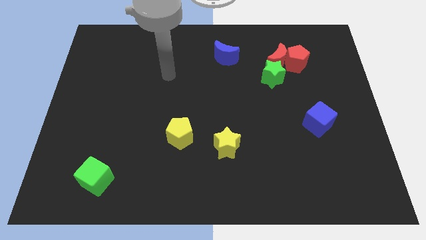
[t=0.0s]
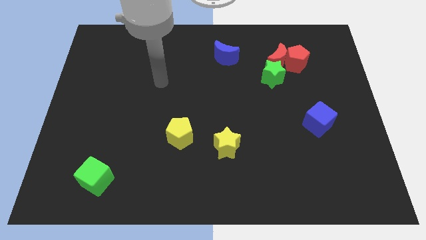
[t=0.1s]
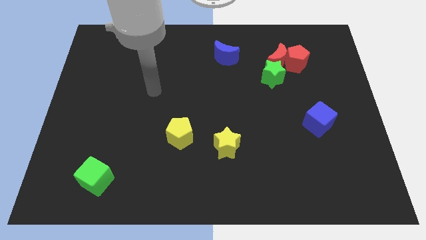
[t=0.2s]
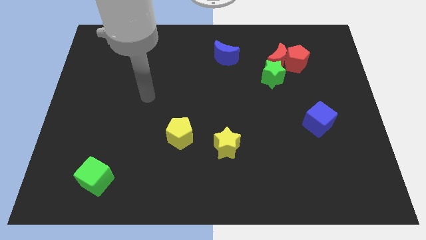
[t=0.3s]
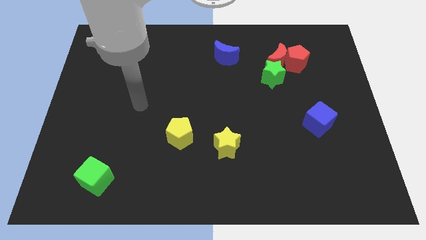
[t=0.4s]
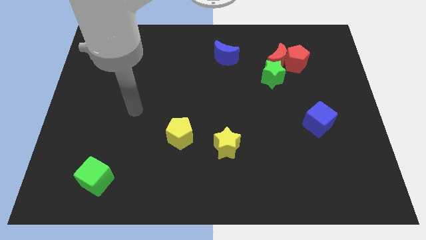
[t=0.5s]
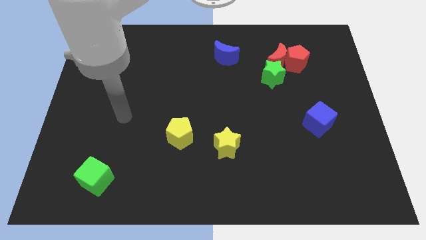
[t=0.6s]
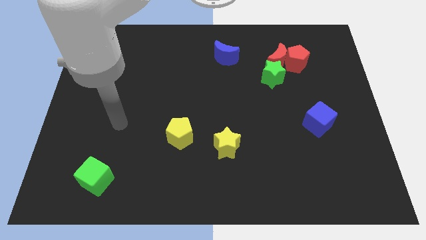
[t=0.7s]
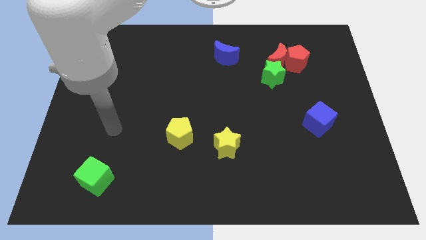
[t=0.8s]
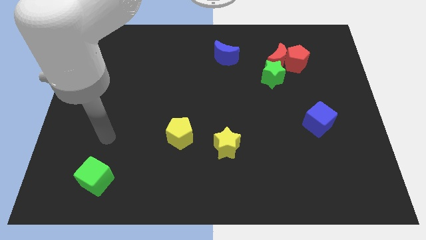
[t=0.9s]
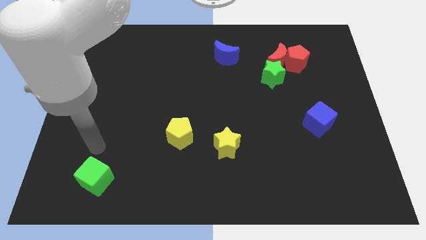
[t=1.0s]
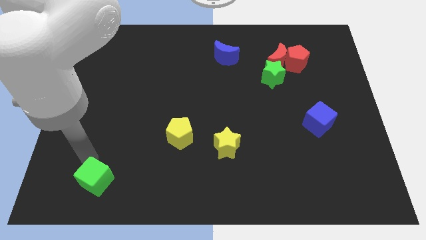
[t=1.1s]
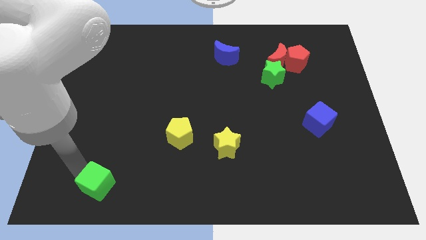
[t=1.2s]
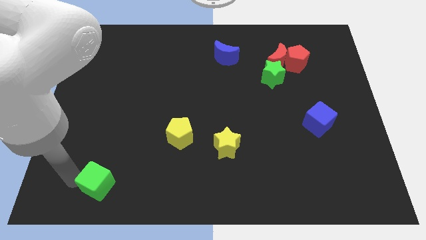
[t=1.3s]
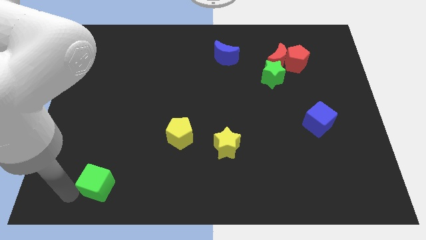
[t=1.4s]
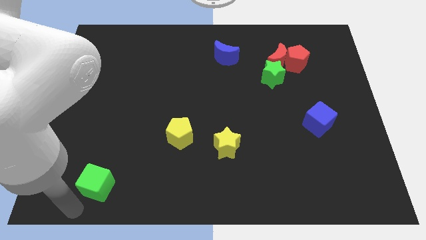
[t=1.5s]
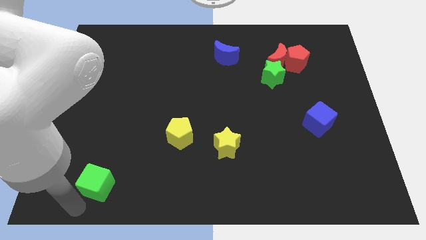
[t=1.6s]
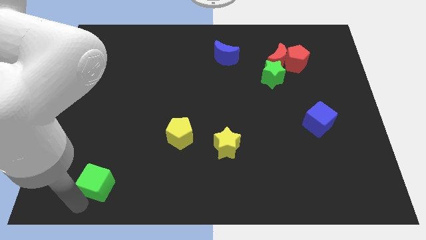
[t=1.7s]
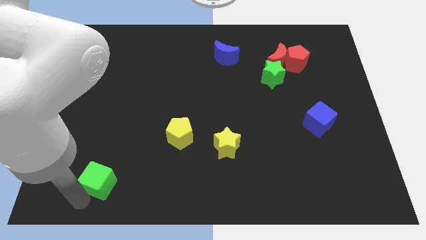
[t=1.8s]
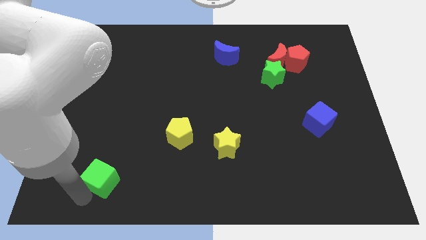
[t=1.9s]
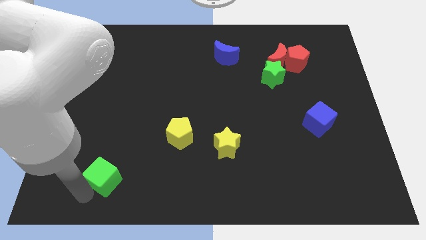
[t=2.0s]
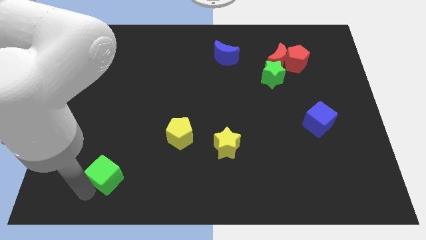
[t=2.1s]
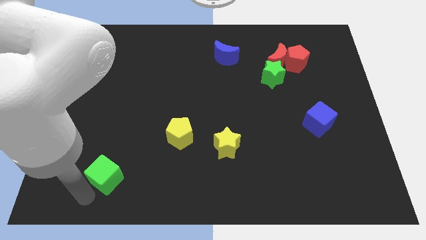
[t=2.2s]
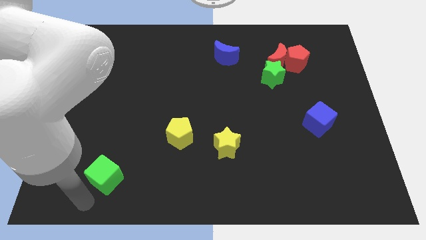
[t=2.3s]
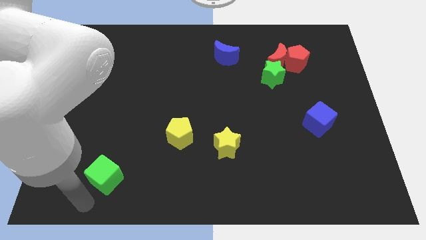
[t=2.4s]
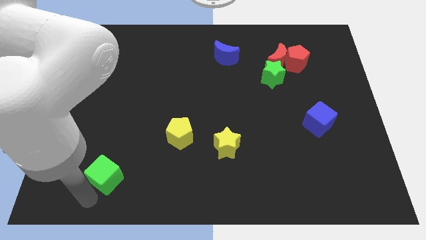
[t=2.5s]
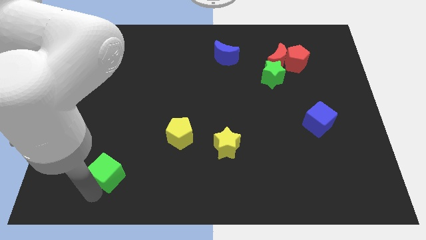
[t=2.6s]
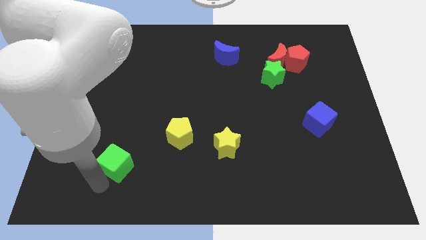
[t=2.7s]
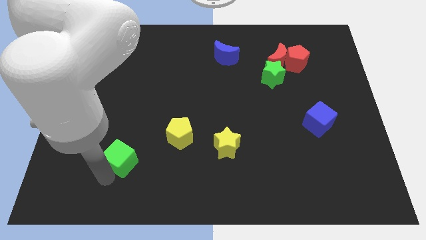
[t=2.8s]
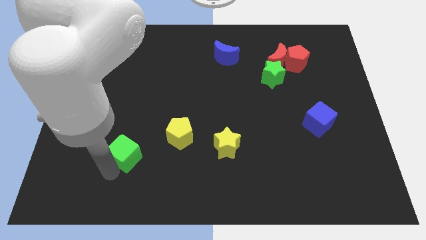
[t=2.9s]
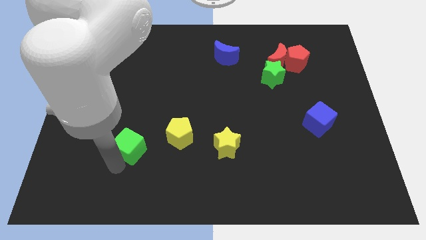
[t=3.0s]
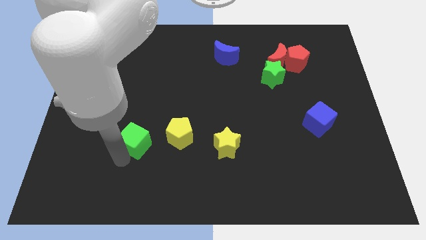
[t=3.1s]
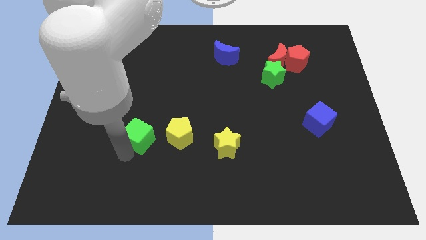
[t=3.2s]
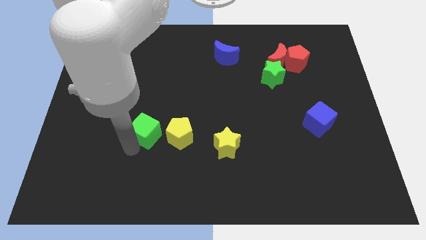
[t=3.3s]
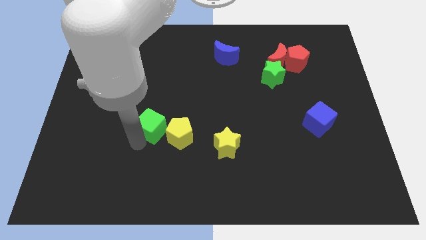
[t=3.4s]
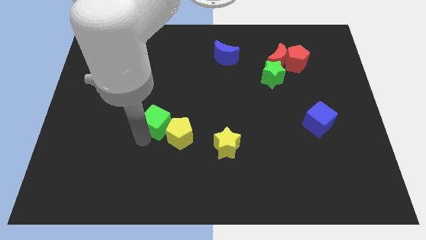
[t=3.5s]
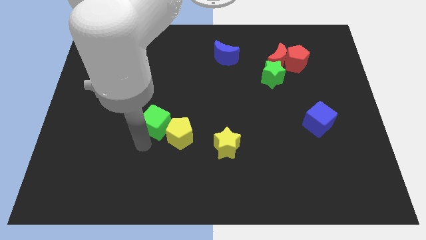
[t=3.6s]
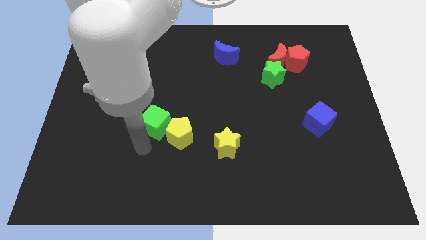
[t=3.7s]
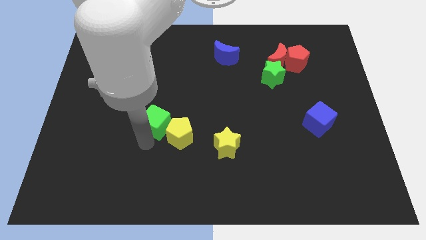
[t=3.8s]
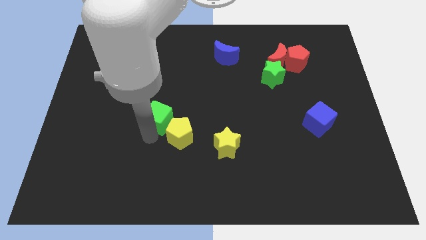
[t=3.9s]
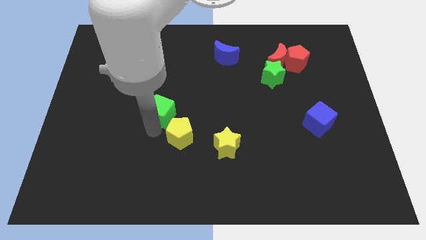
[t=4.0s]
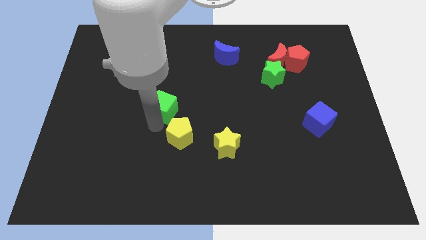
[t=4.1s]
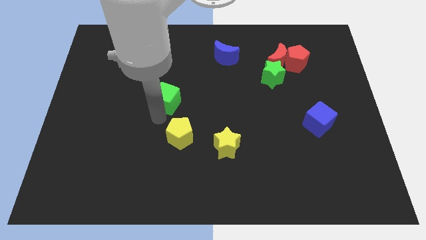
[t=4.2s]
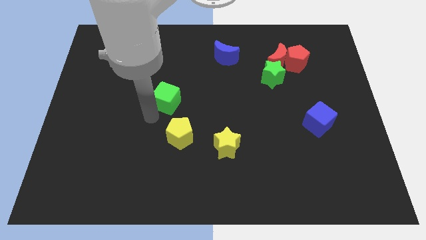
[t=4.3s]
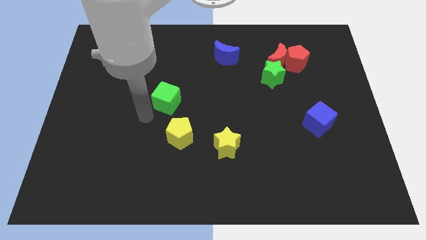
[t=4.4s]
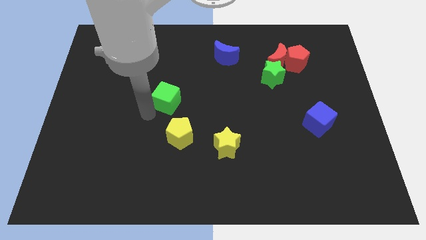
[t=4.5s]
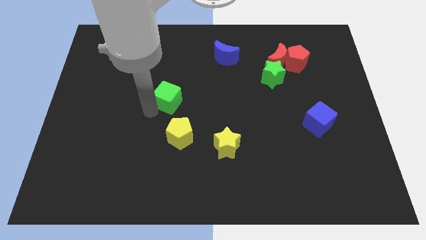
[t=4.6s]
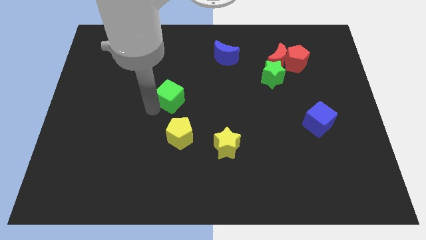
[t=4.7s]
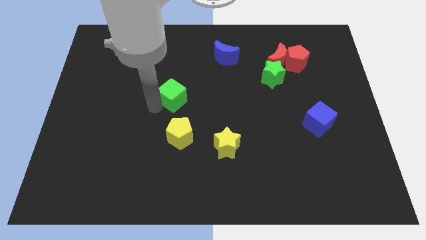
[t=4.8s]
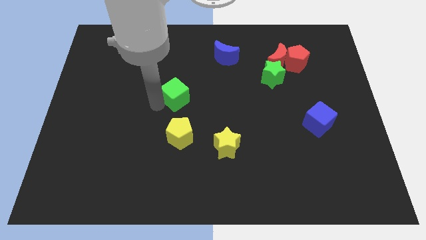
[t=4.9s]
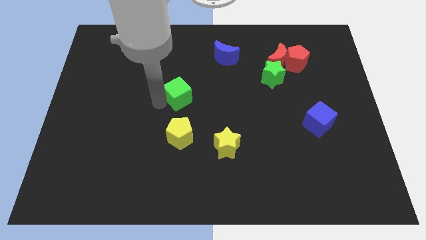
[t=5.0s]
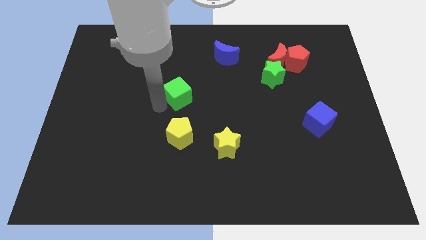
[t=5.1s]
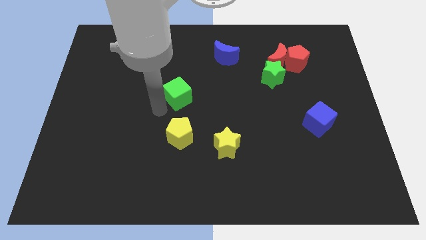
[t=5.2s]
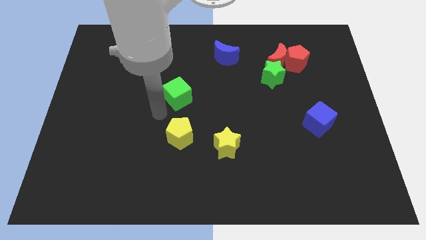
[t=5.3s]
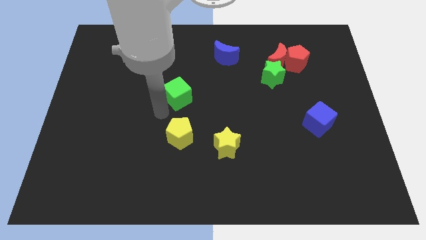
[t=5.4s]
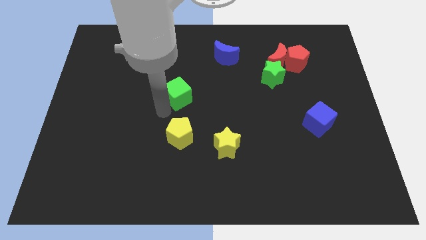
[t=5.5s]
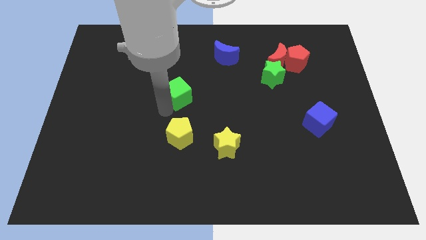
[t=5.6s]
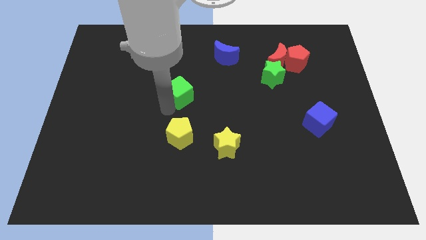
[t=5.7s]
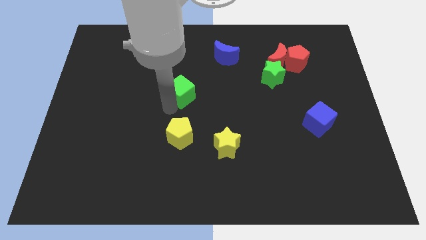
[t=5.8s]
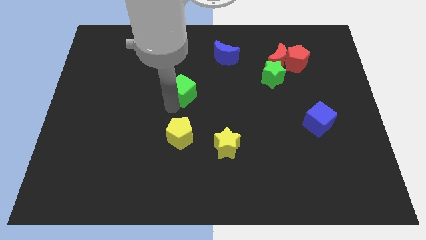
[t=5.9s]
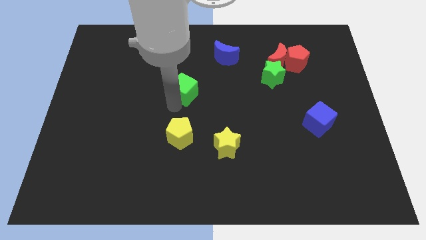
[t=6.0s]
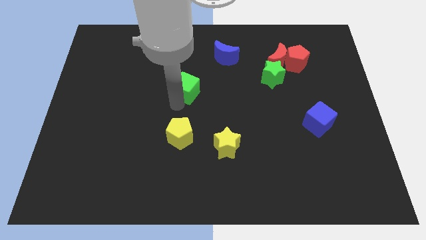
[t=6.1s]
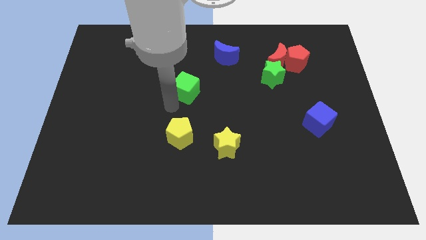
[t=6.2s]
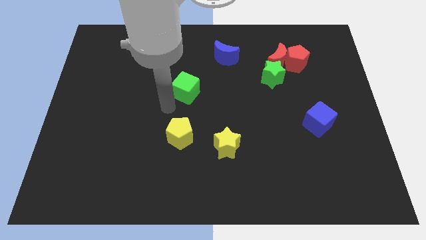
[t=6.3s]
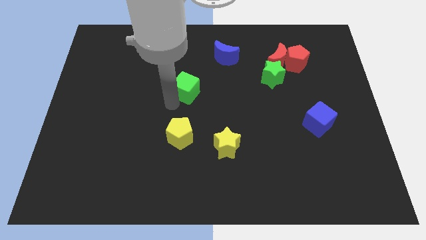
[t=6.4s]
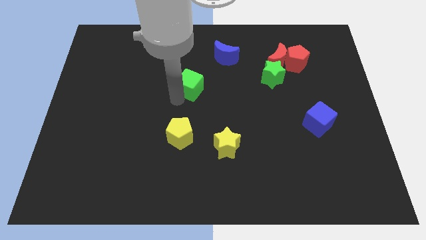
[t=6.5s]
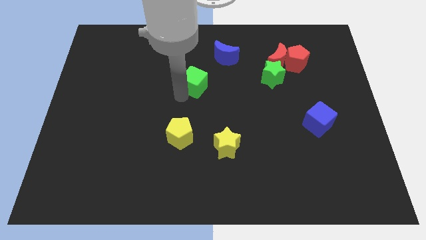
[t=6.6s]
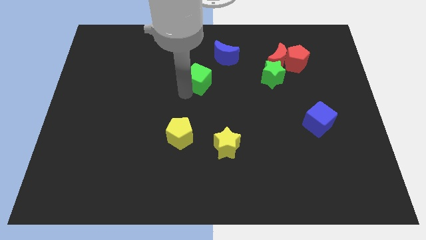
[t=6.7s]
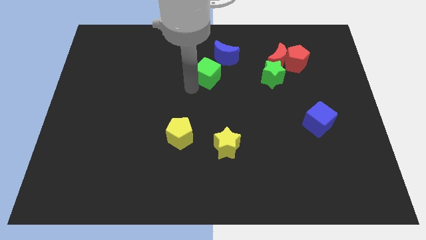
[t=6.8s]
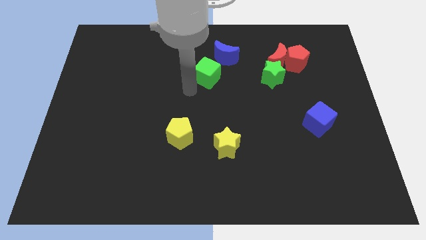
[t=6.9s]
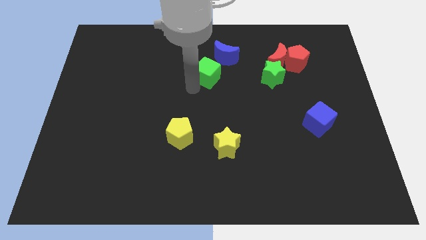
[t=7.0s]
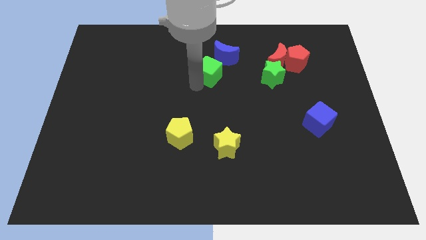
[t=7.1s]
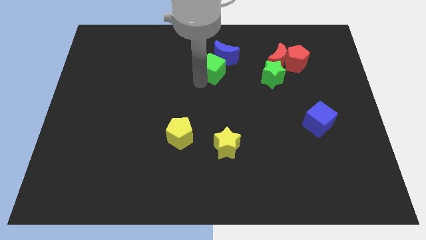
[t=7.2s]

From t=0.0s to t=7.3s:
move the green cube next to the blue moon
